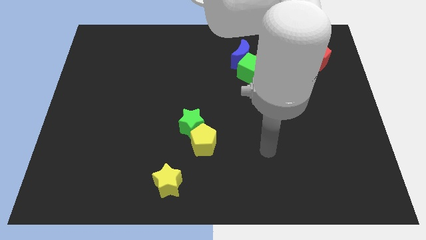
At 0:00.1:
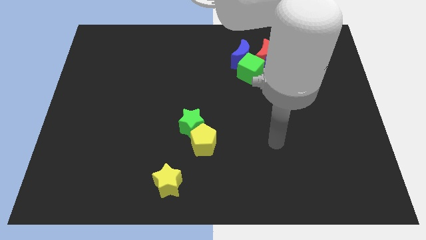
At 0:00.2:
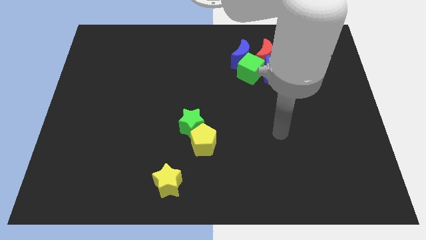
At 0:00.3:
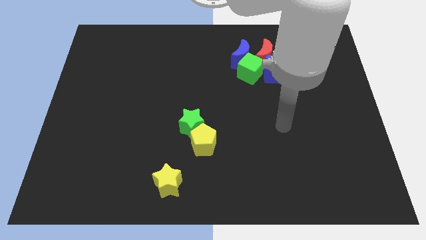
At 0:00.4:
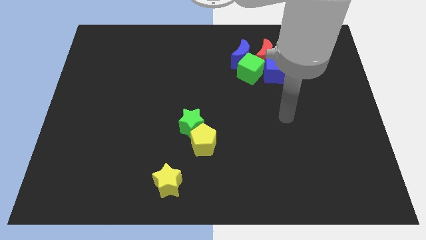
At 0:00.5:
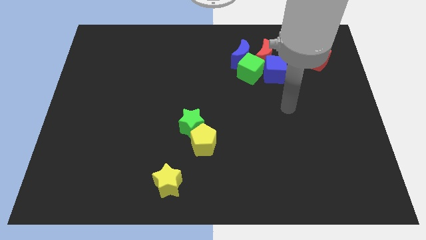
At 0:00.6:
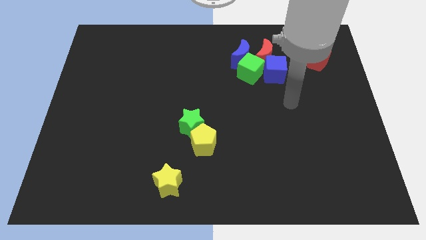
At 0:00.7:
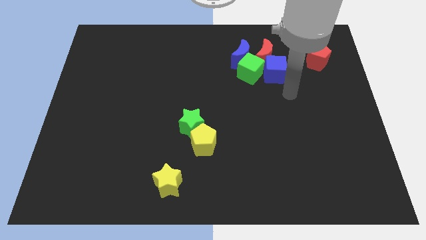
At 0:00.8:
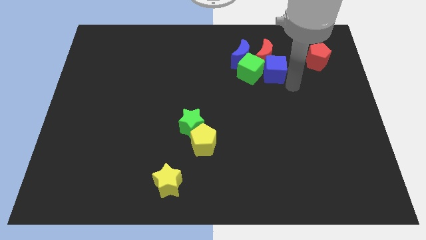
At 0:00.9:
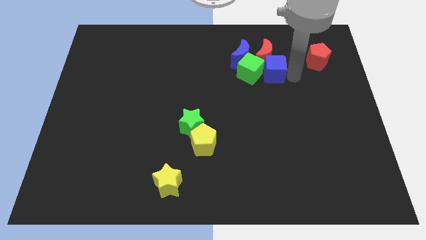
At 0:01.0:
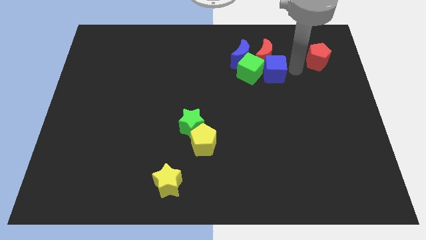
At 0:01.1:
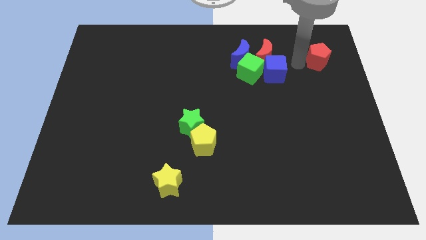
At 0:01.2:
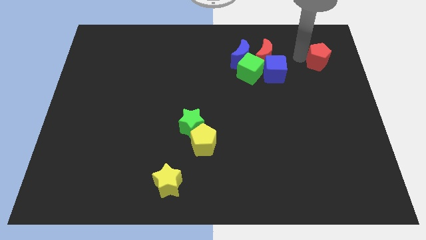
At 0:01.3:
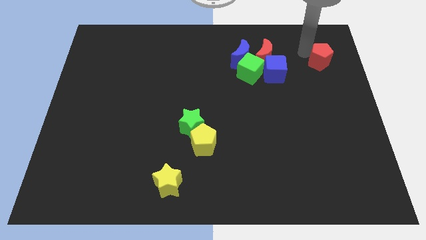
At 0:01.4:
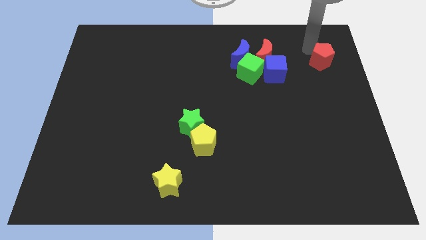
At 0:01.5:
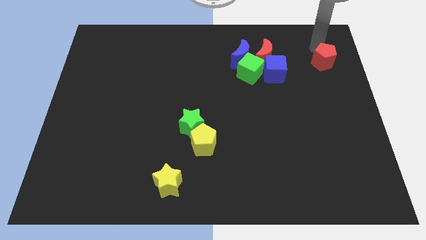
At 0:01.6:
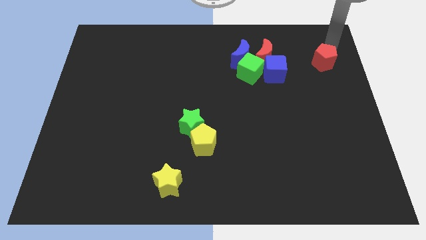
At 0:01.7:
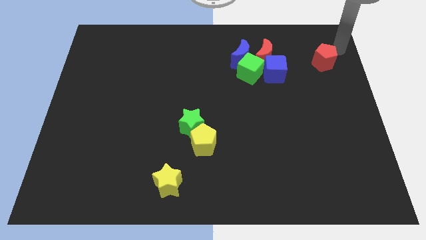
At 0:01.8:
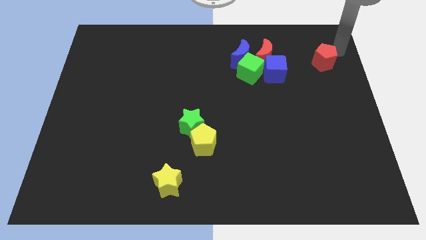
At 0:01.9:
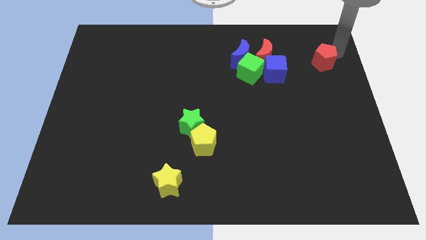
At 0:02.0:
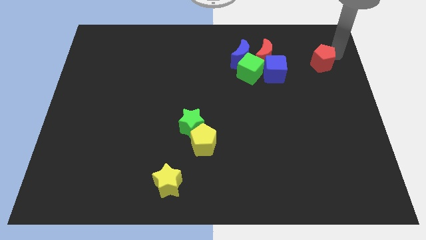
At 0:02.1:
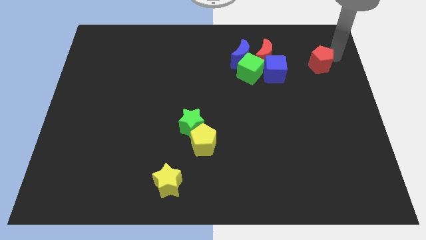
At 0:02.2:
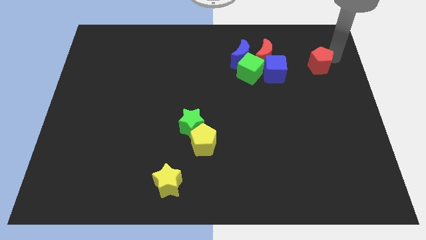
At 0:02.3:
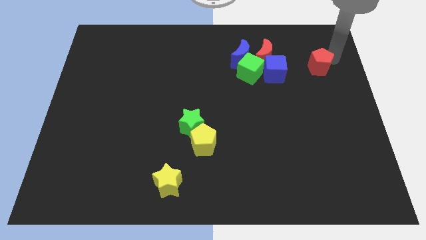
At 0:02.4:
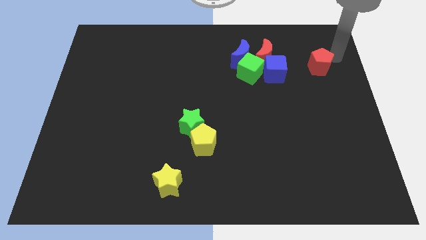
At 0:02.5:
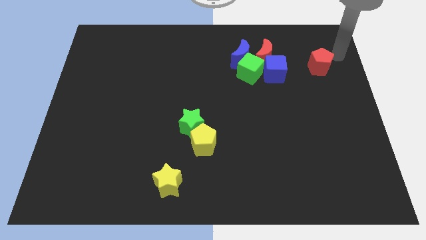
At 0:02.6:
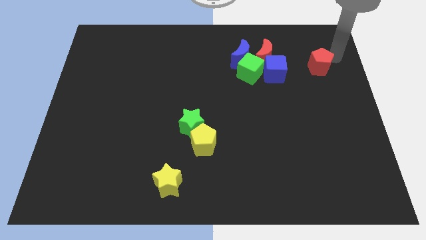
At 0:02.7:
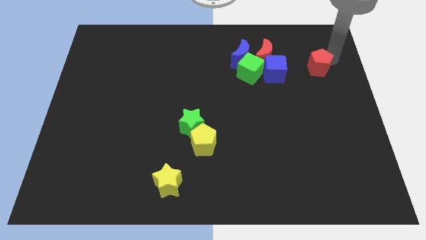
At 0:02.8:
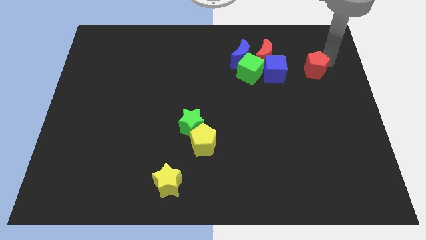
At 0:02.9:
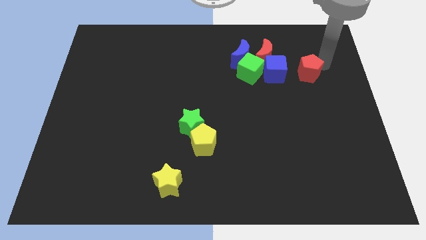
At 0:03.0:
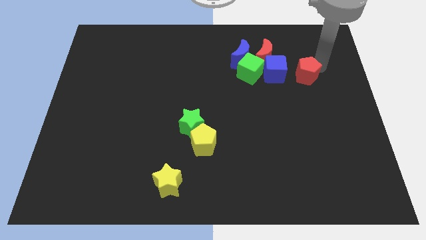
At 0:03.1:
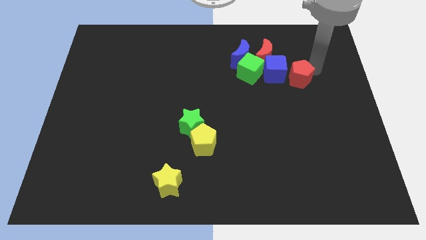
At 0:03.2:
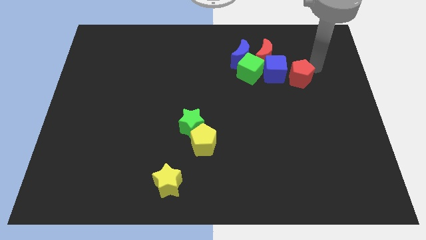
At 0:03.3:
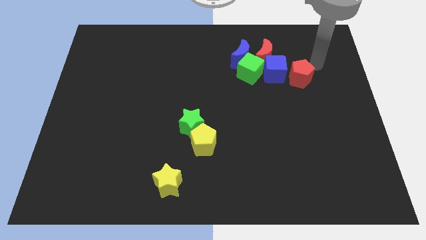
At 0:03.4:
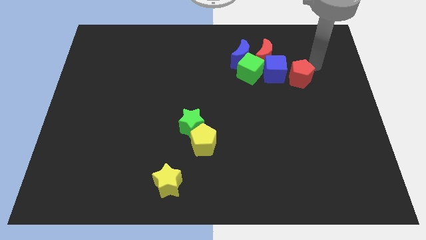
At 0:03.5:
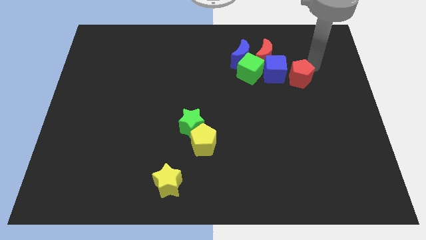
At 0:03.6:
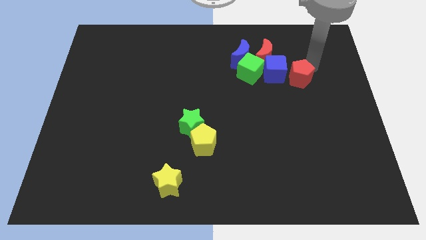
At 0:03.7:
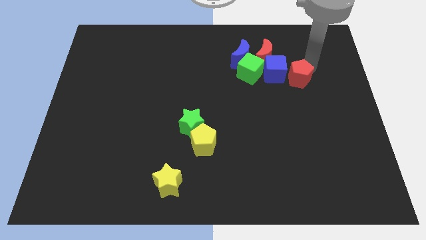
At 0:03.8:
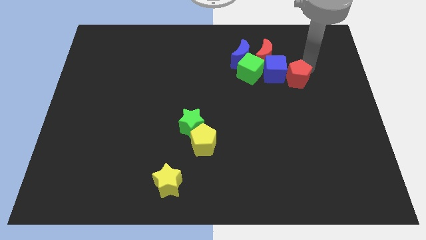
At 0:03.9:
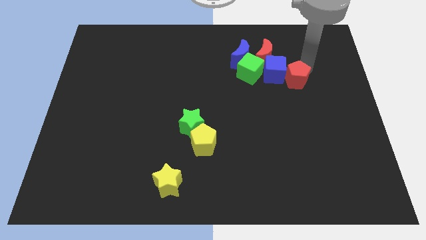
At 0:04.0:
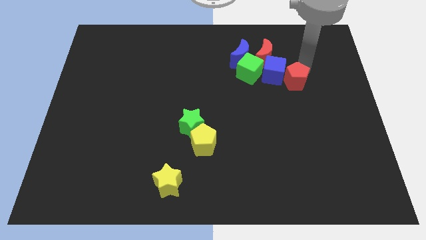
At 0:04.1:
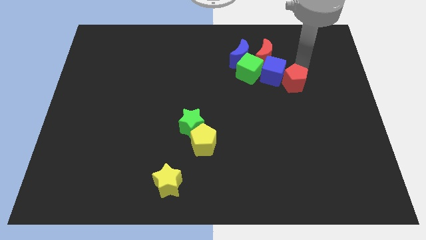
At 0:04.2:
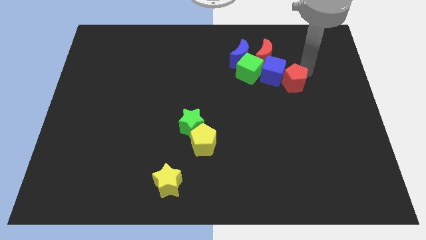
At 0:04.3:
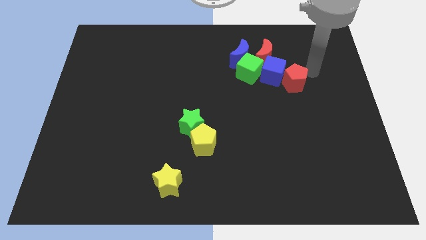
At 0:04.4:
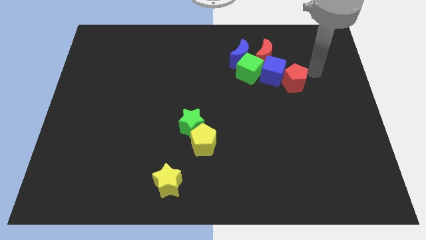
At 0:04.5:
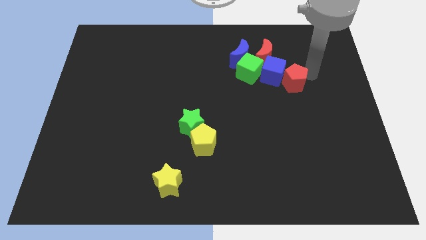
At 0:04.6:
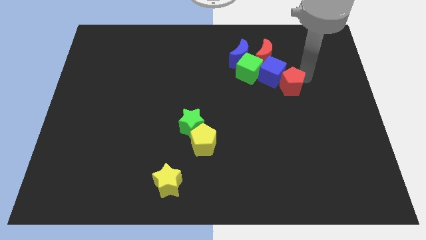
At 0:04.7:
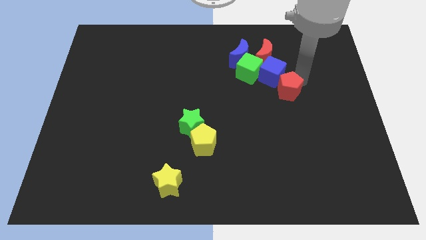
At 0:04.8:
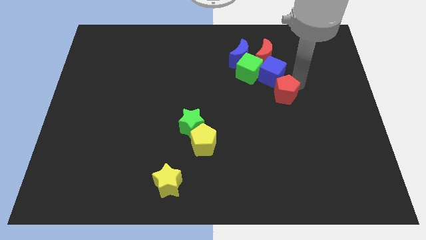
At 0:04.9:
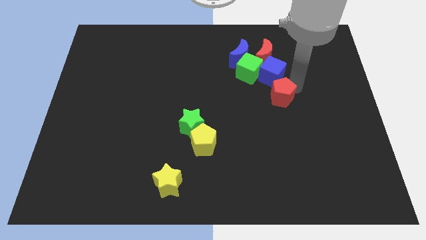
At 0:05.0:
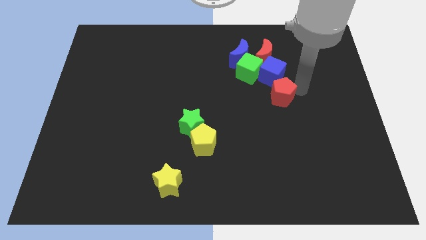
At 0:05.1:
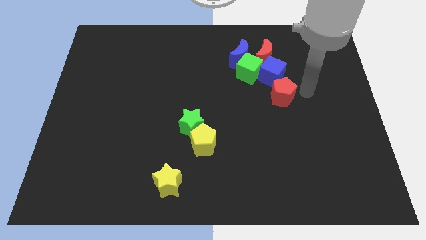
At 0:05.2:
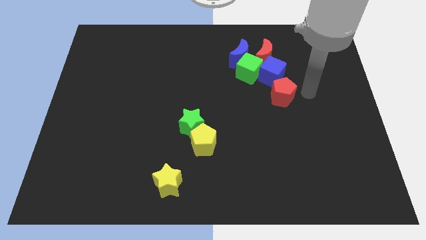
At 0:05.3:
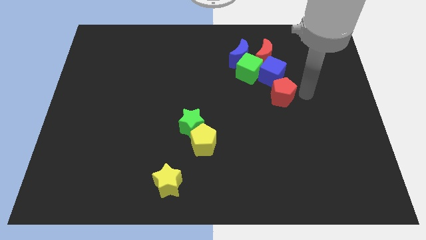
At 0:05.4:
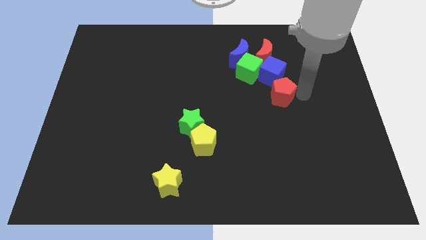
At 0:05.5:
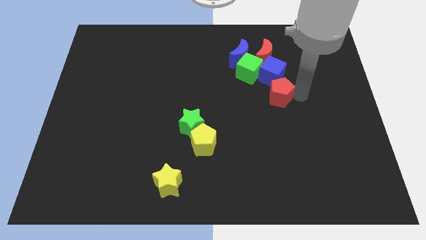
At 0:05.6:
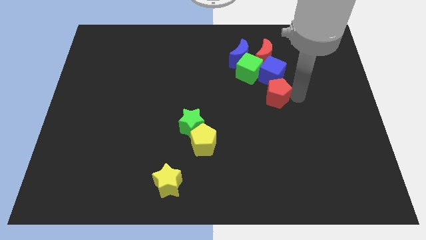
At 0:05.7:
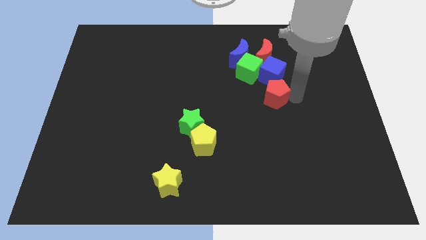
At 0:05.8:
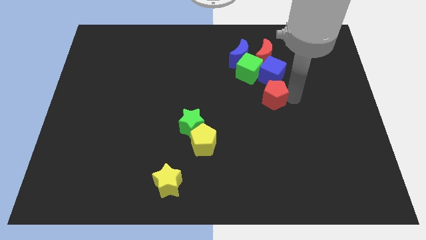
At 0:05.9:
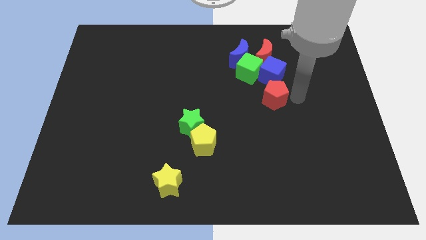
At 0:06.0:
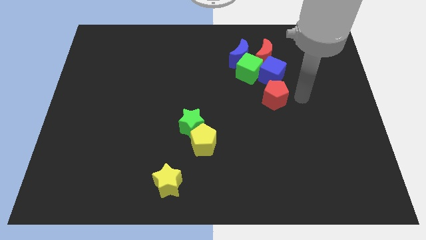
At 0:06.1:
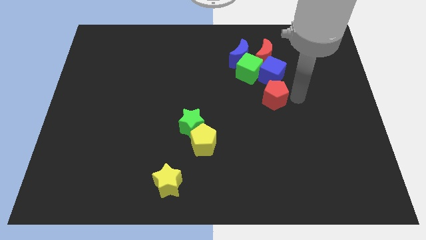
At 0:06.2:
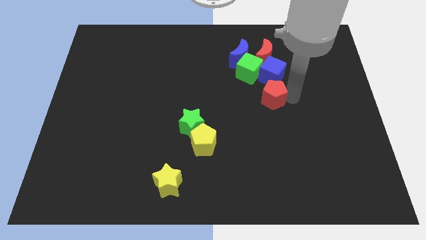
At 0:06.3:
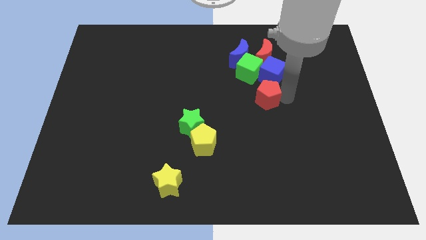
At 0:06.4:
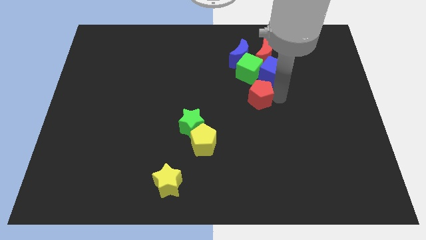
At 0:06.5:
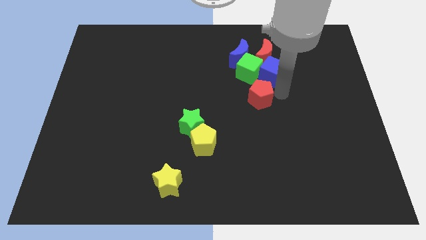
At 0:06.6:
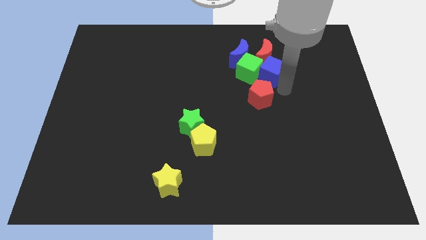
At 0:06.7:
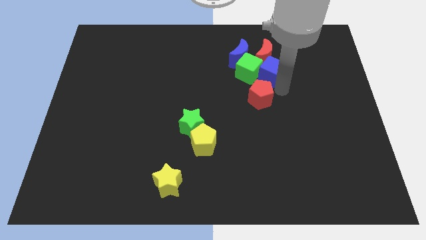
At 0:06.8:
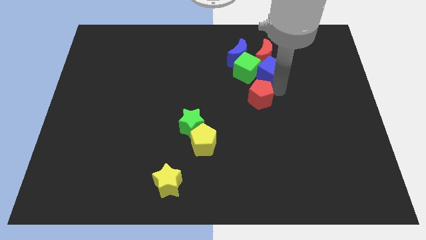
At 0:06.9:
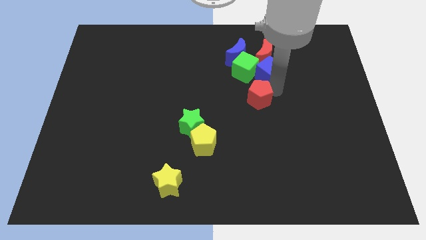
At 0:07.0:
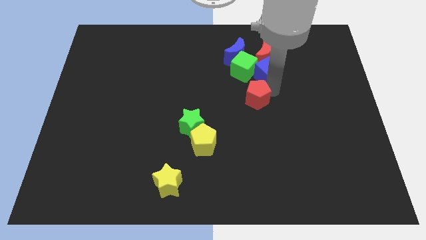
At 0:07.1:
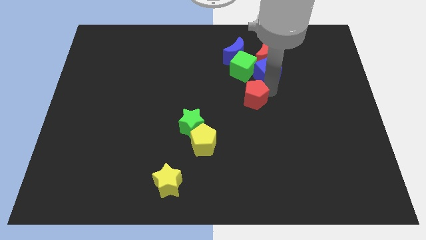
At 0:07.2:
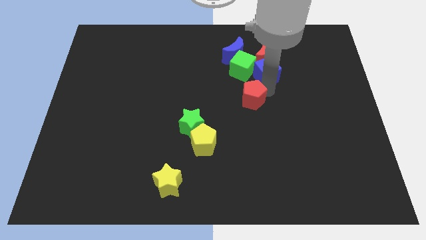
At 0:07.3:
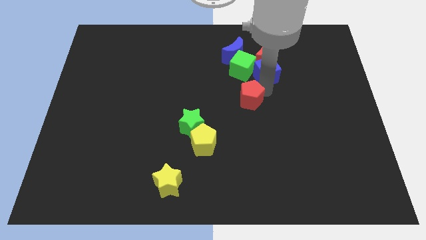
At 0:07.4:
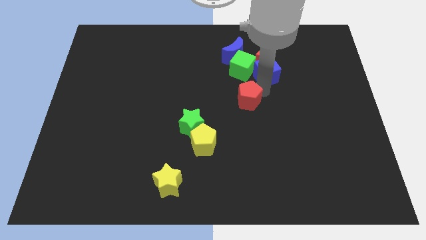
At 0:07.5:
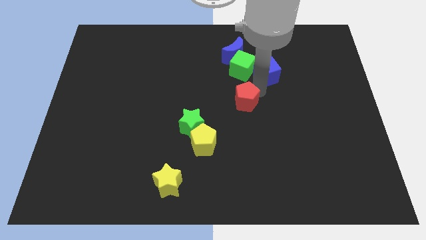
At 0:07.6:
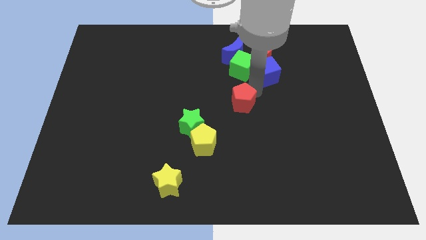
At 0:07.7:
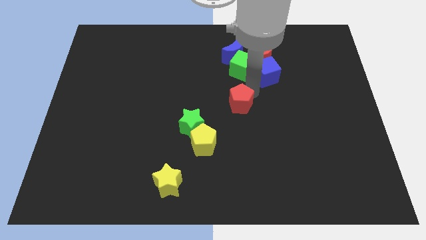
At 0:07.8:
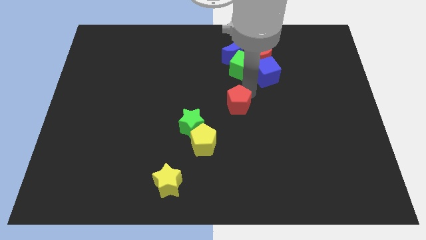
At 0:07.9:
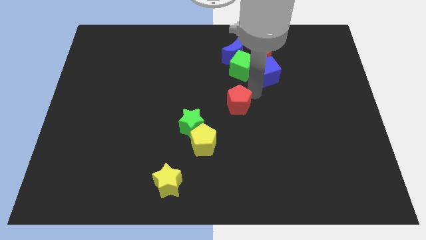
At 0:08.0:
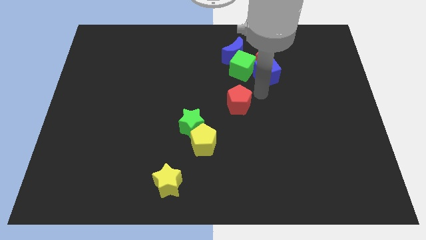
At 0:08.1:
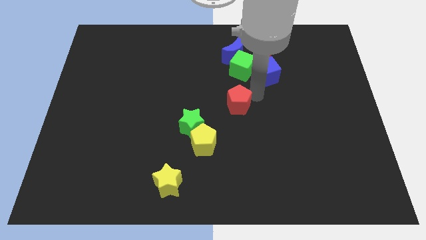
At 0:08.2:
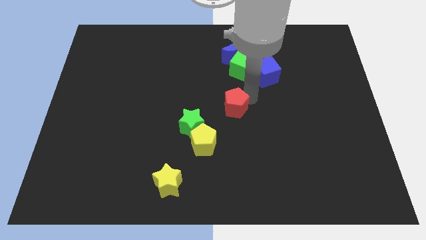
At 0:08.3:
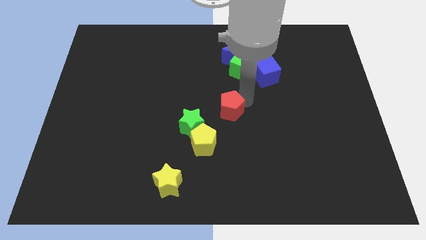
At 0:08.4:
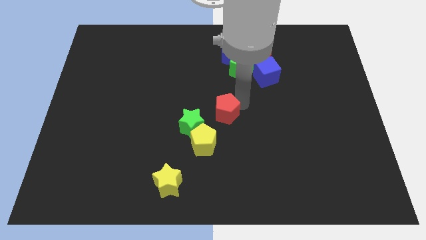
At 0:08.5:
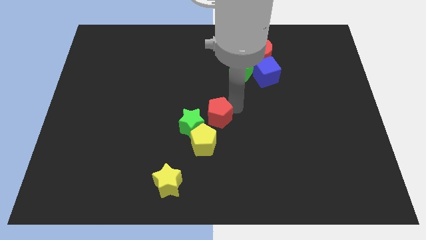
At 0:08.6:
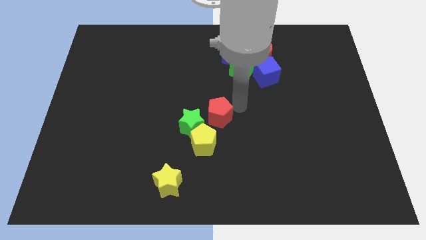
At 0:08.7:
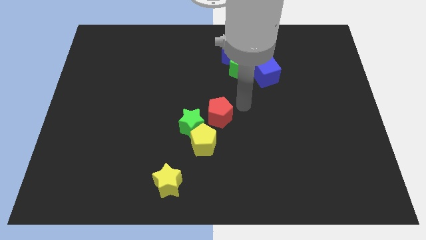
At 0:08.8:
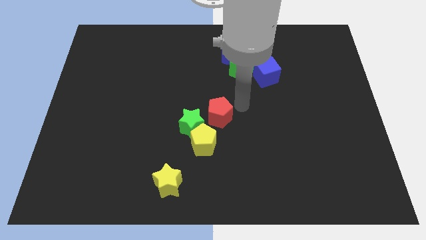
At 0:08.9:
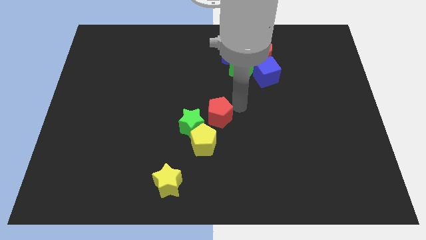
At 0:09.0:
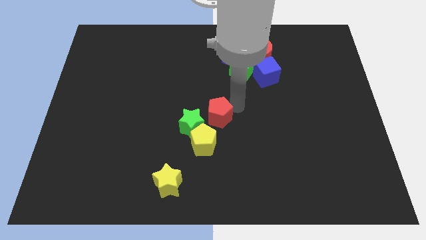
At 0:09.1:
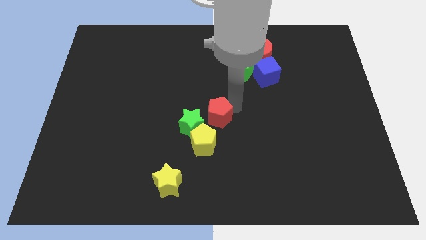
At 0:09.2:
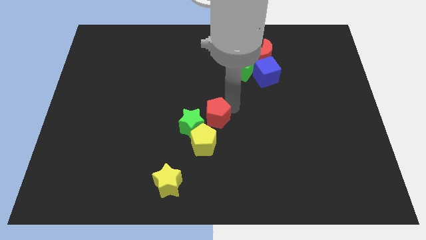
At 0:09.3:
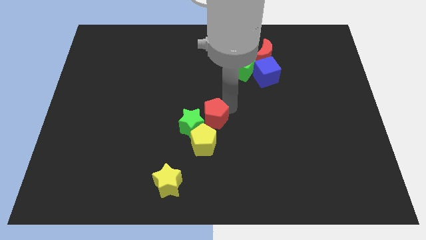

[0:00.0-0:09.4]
slide the red pentagon towards the green star
